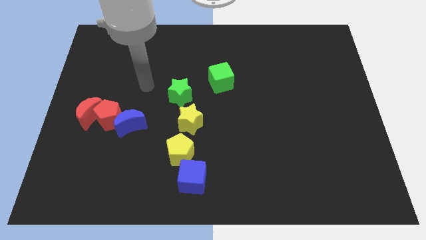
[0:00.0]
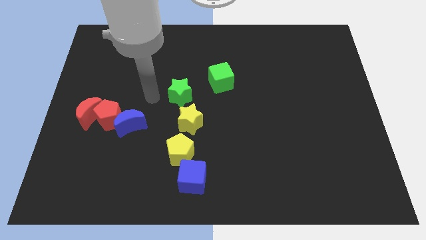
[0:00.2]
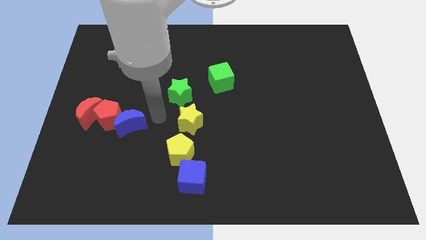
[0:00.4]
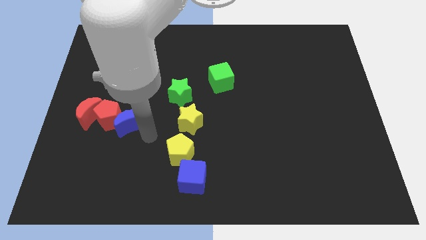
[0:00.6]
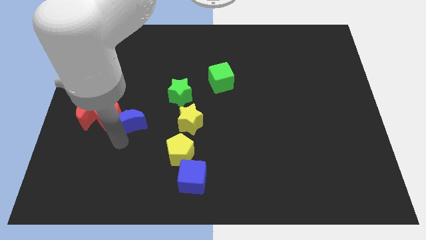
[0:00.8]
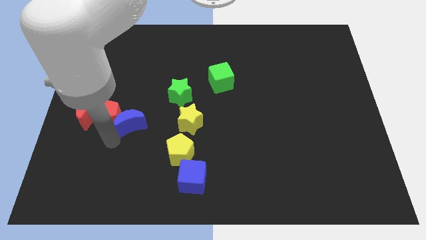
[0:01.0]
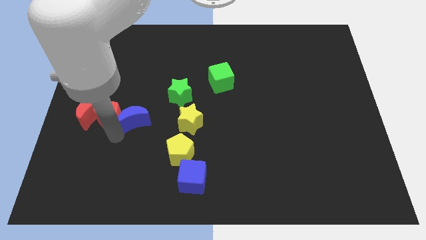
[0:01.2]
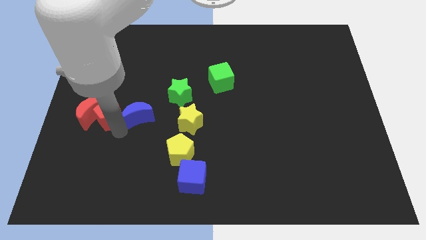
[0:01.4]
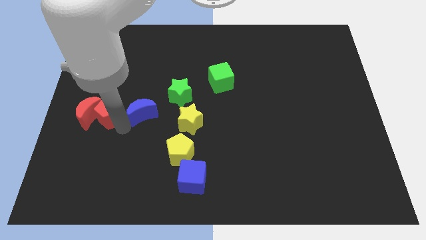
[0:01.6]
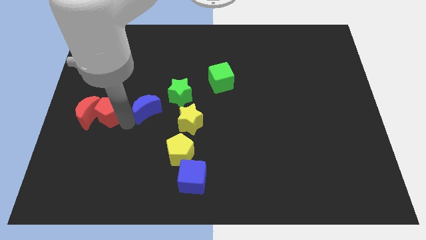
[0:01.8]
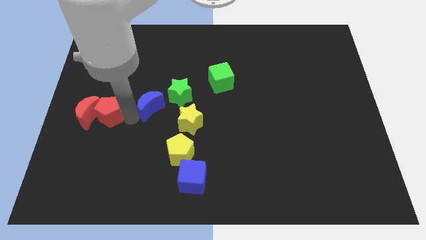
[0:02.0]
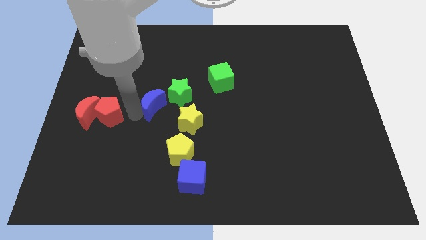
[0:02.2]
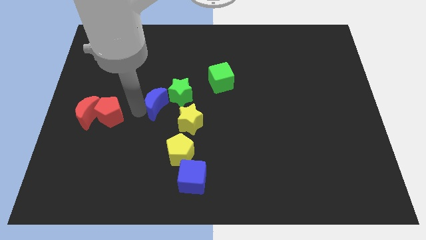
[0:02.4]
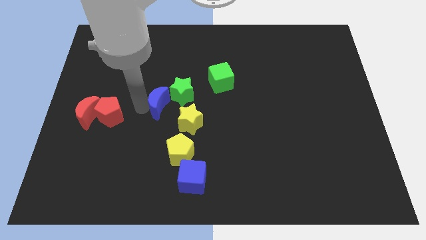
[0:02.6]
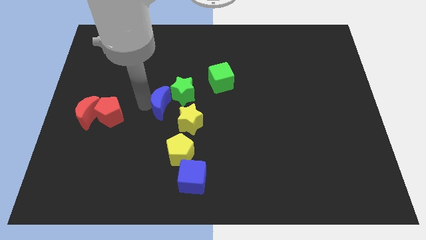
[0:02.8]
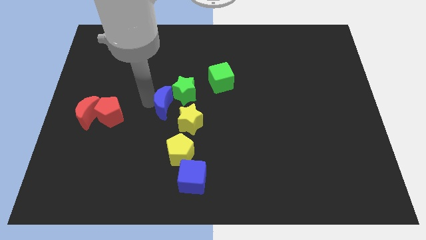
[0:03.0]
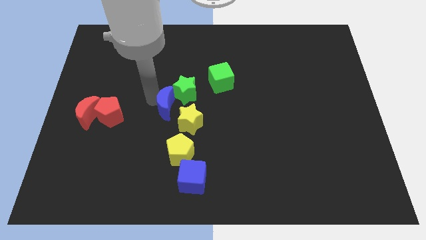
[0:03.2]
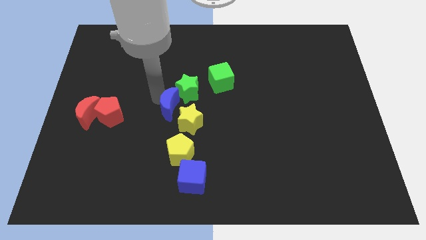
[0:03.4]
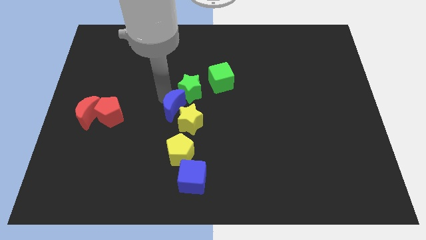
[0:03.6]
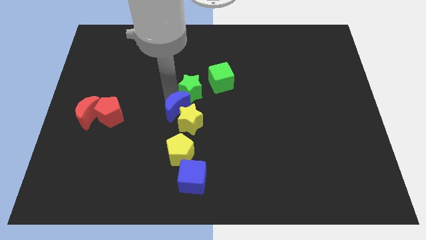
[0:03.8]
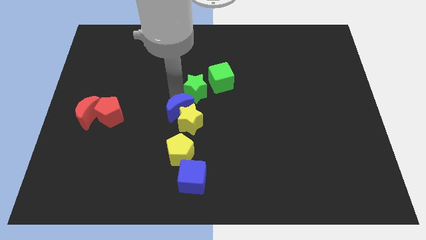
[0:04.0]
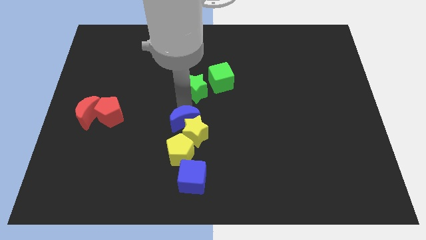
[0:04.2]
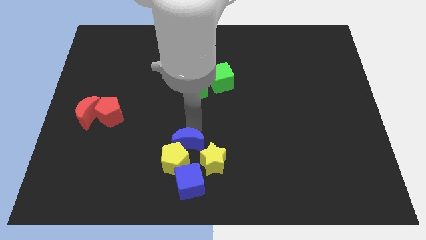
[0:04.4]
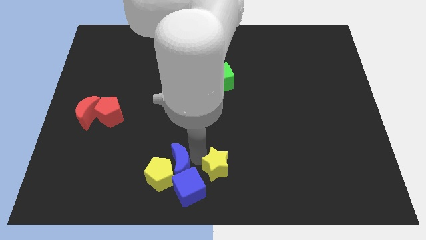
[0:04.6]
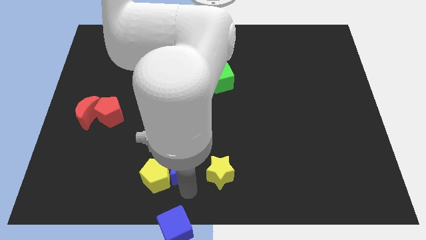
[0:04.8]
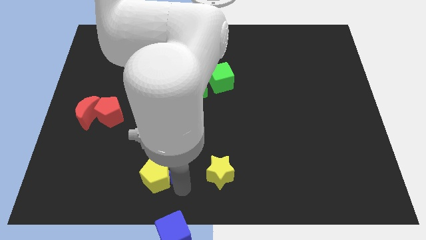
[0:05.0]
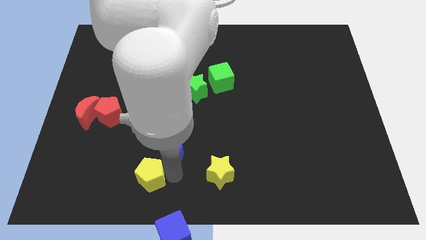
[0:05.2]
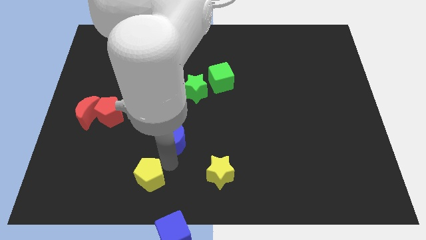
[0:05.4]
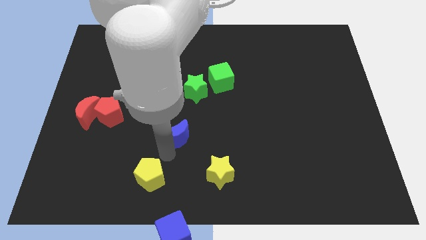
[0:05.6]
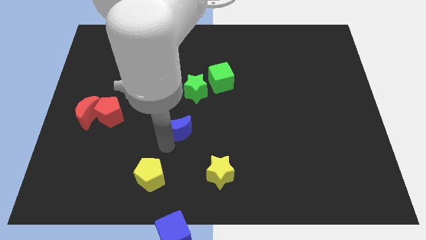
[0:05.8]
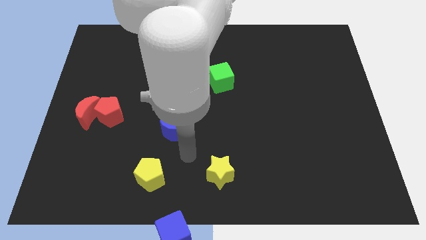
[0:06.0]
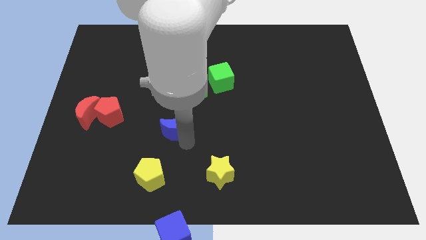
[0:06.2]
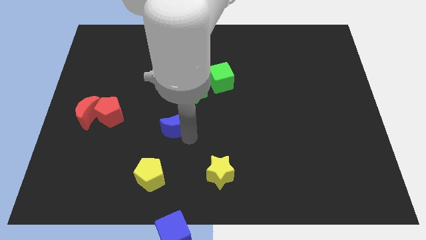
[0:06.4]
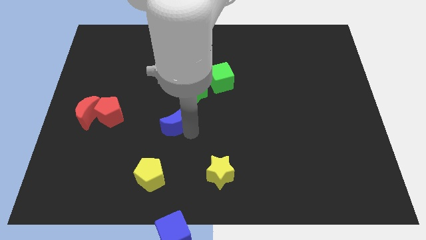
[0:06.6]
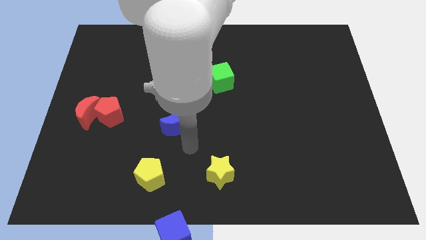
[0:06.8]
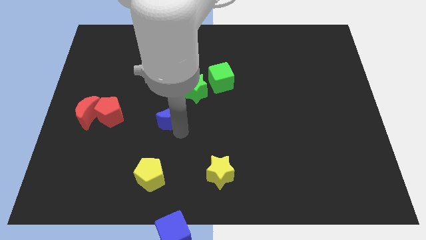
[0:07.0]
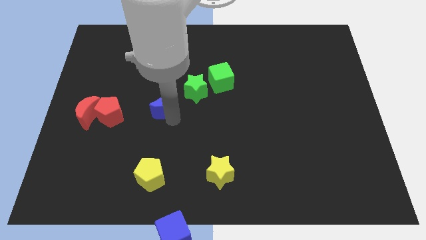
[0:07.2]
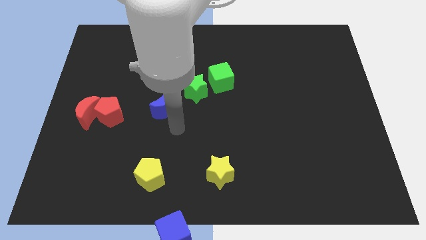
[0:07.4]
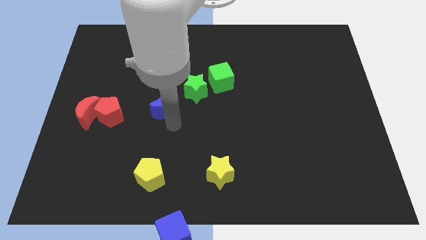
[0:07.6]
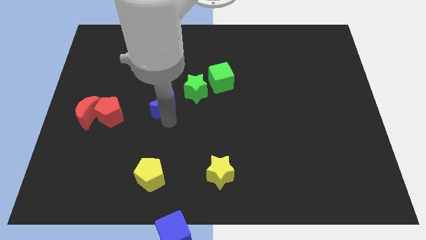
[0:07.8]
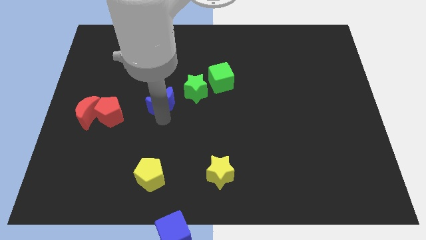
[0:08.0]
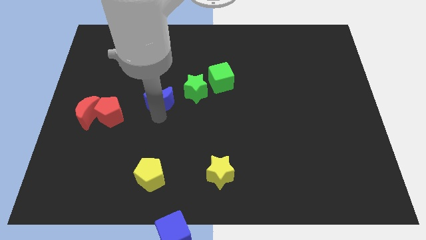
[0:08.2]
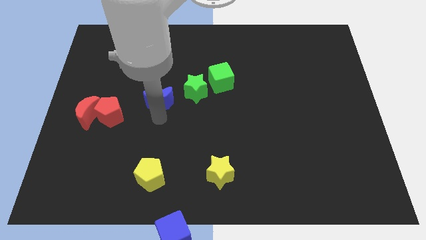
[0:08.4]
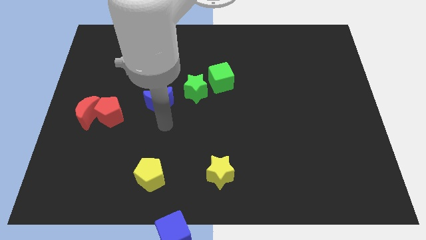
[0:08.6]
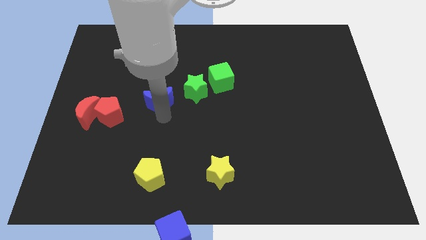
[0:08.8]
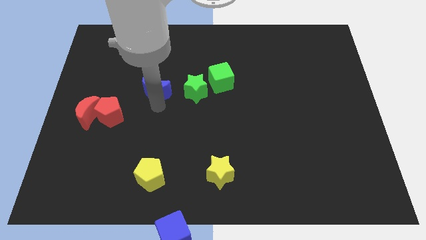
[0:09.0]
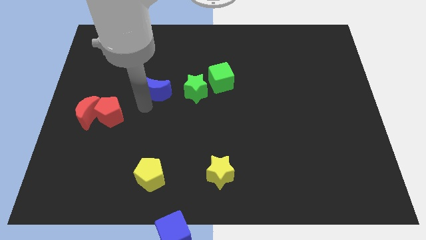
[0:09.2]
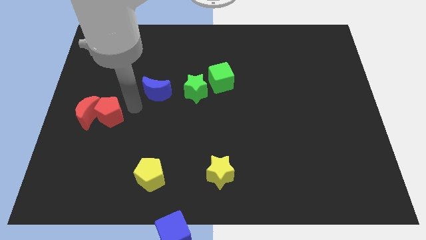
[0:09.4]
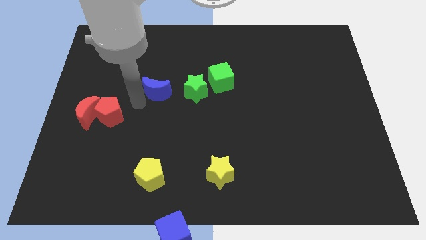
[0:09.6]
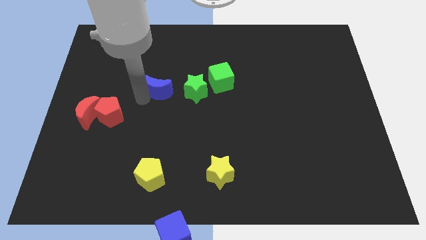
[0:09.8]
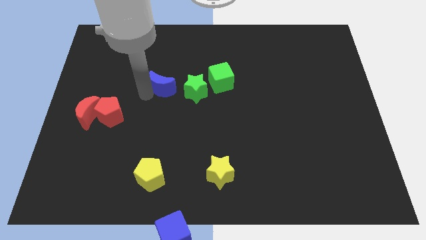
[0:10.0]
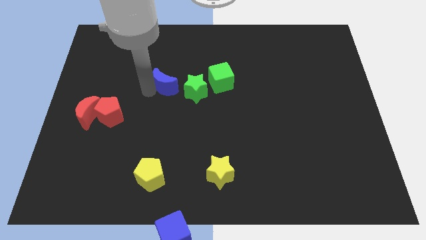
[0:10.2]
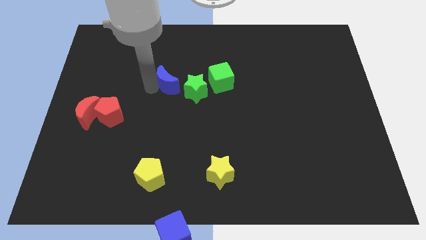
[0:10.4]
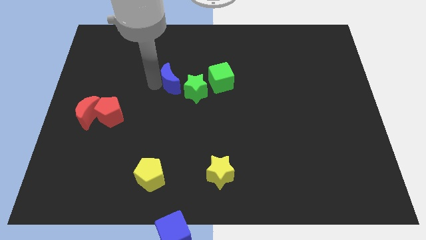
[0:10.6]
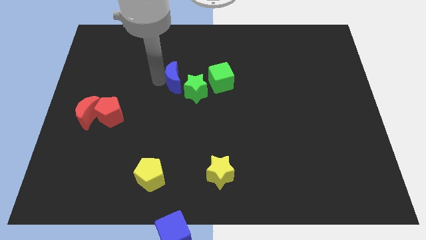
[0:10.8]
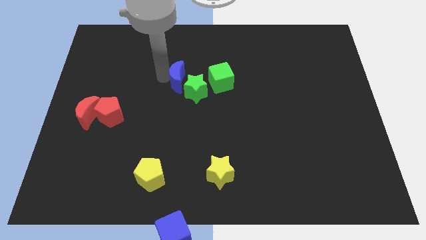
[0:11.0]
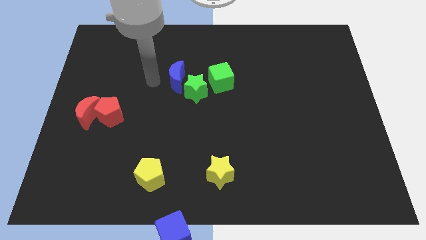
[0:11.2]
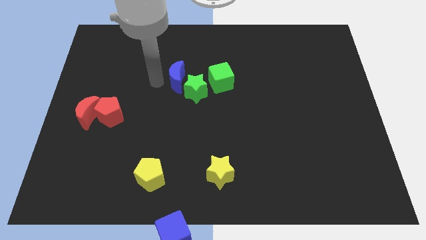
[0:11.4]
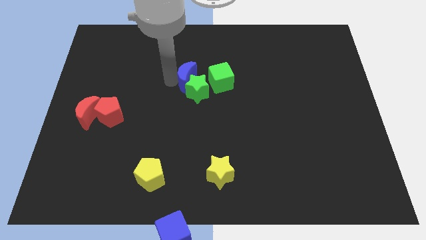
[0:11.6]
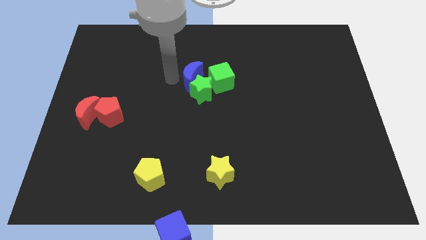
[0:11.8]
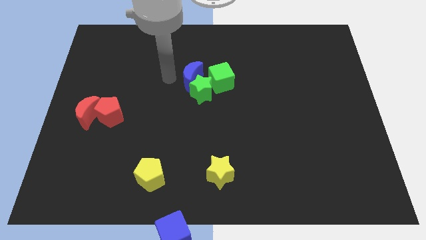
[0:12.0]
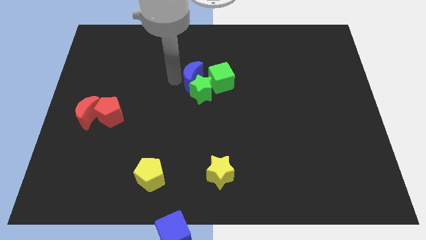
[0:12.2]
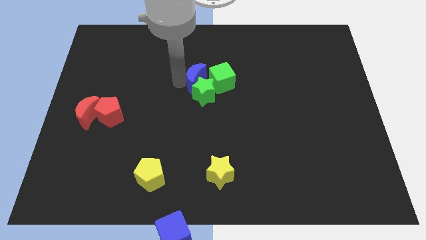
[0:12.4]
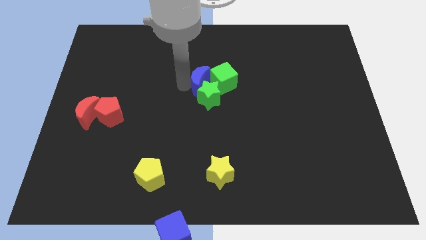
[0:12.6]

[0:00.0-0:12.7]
slide the blue moon close to the green cube

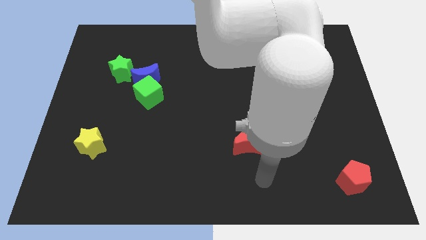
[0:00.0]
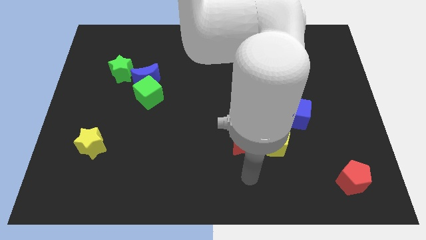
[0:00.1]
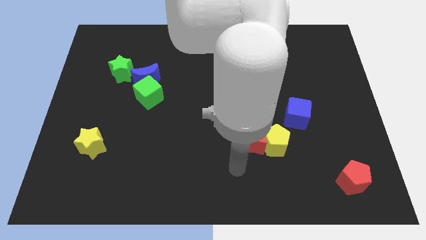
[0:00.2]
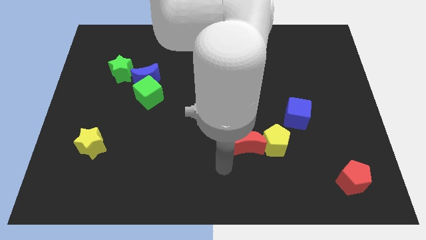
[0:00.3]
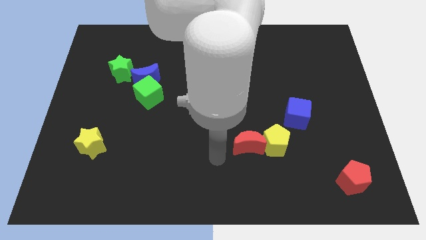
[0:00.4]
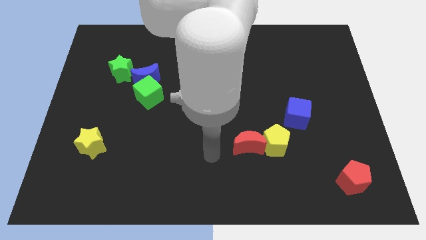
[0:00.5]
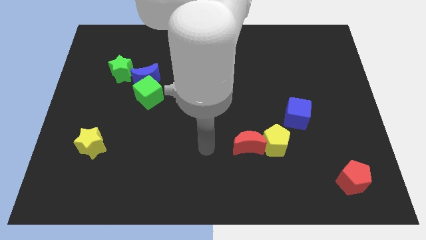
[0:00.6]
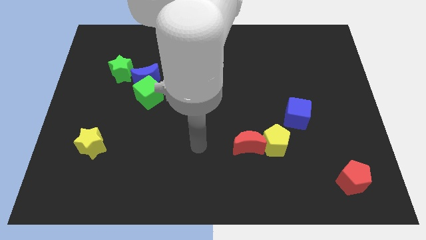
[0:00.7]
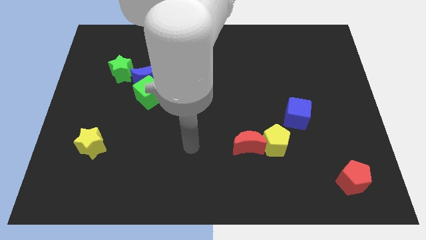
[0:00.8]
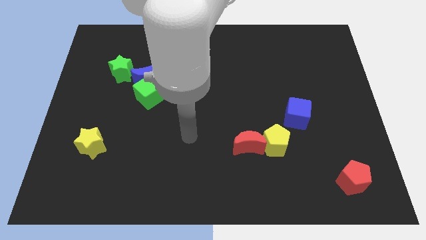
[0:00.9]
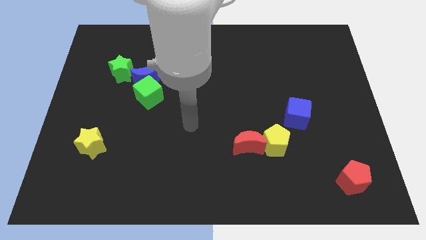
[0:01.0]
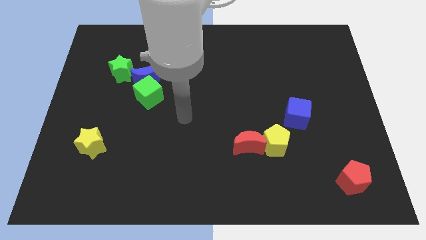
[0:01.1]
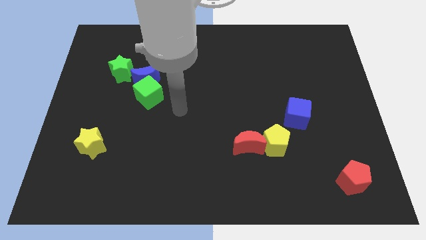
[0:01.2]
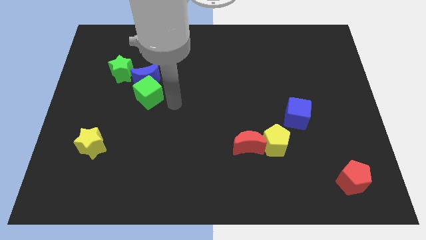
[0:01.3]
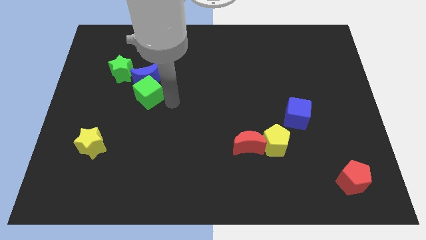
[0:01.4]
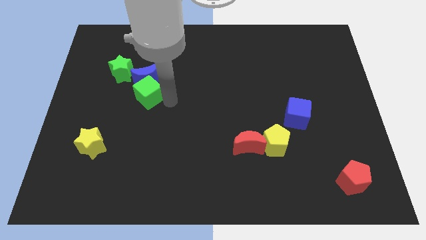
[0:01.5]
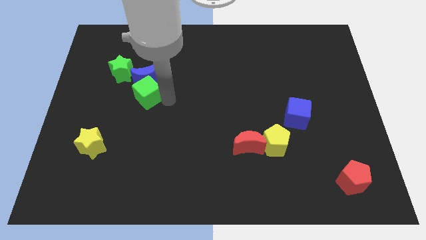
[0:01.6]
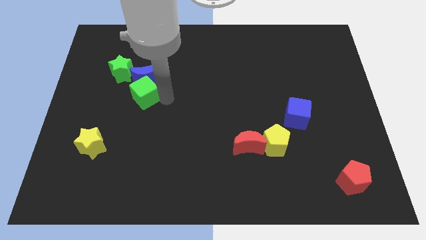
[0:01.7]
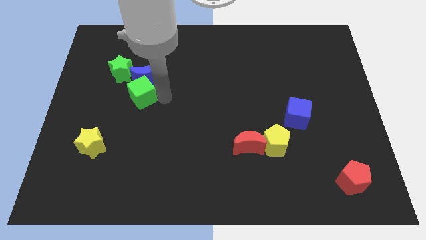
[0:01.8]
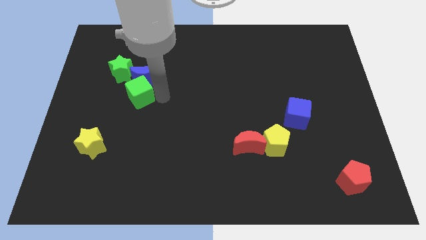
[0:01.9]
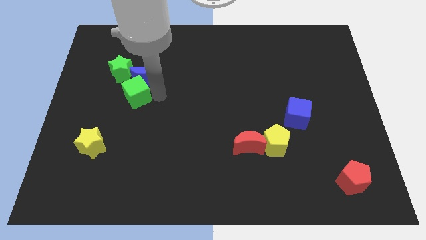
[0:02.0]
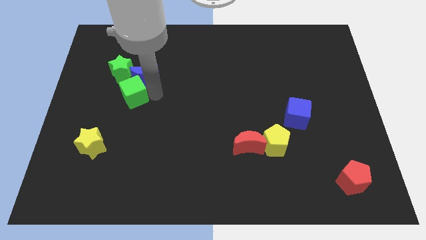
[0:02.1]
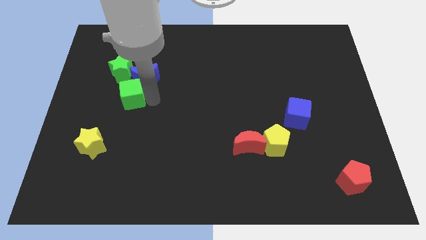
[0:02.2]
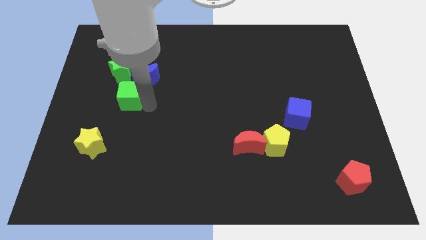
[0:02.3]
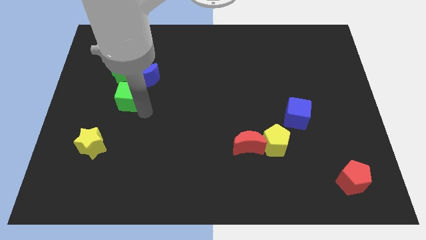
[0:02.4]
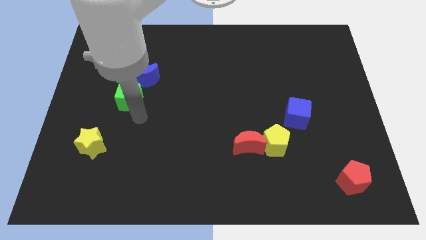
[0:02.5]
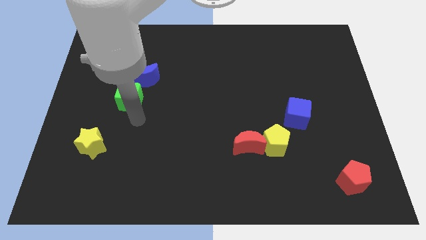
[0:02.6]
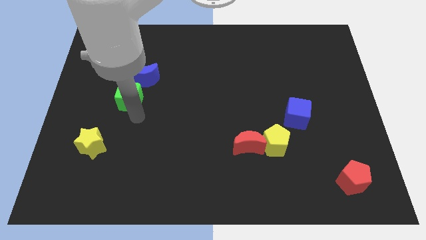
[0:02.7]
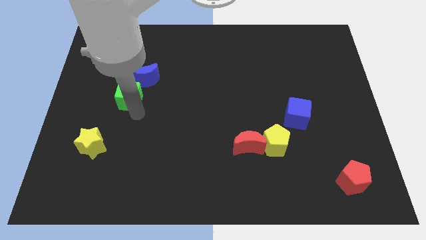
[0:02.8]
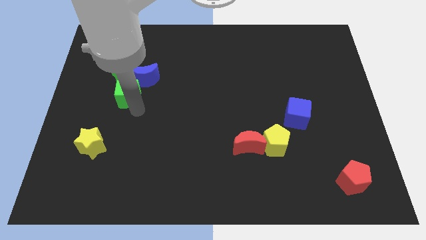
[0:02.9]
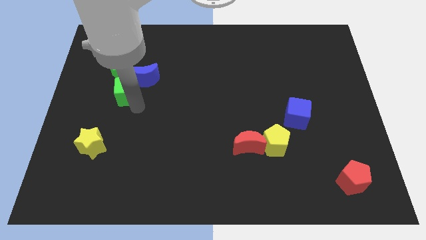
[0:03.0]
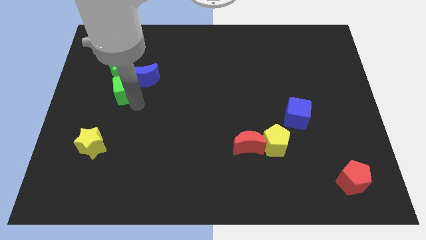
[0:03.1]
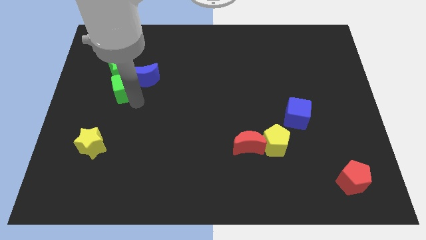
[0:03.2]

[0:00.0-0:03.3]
put the green cube close to the green star
